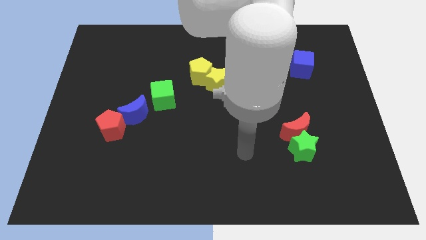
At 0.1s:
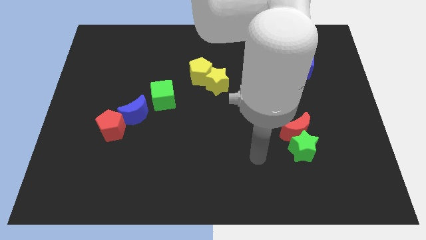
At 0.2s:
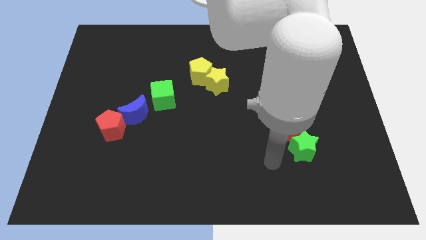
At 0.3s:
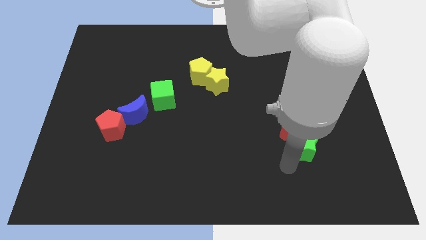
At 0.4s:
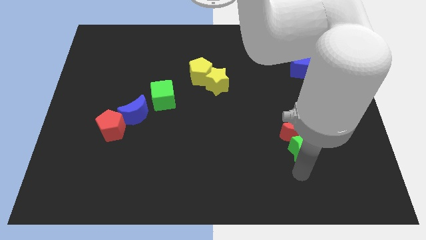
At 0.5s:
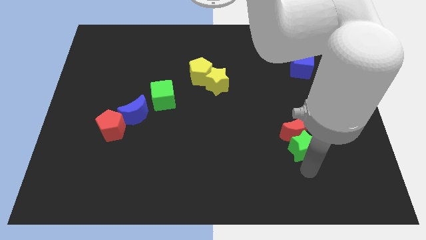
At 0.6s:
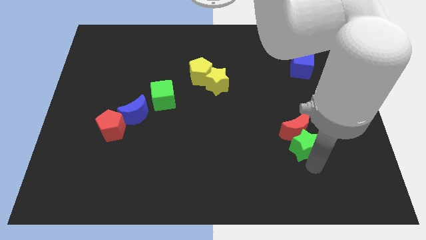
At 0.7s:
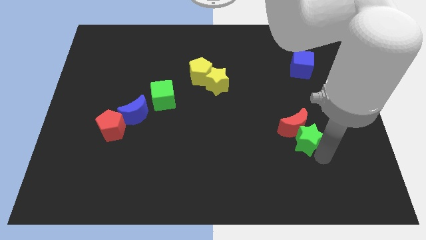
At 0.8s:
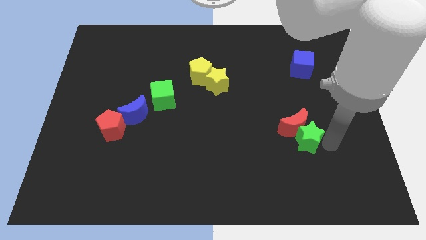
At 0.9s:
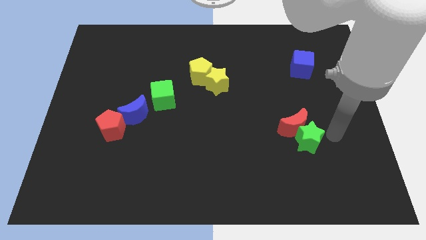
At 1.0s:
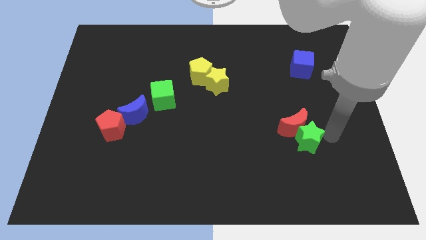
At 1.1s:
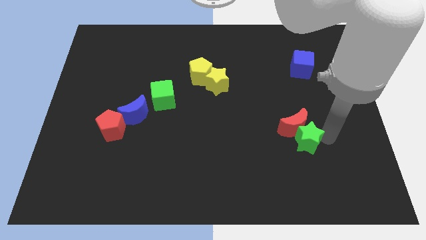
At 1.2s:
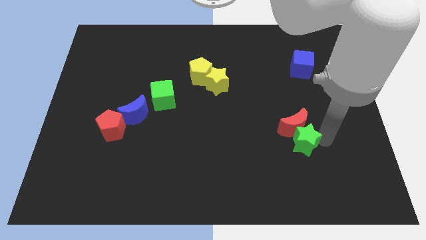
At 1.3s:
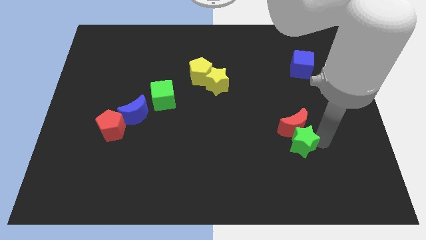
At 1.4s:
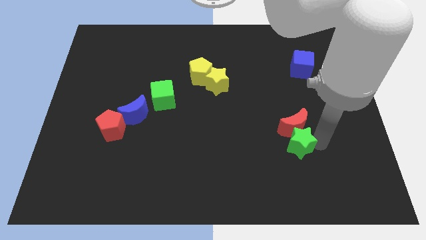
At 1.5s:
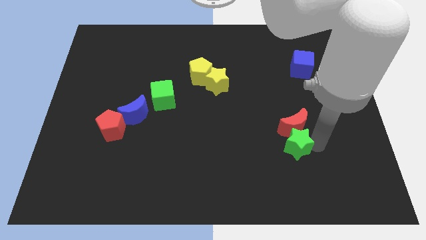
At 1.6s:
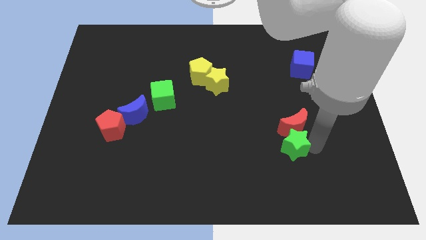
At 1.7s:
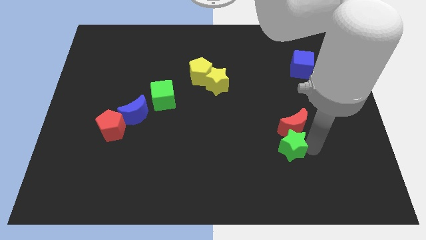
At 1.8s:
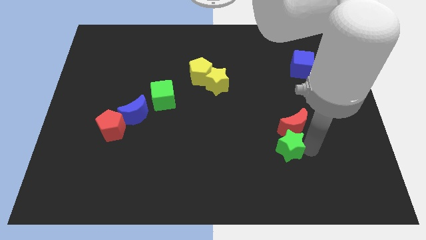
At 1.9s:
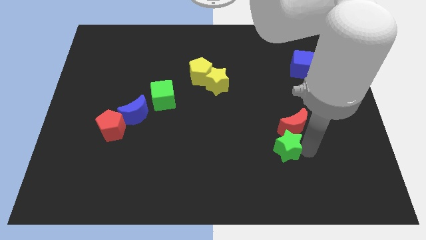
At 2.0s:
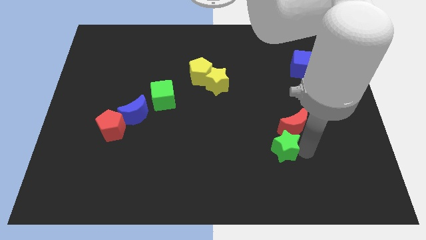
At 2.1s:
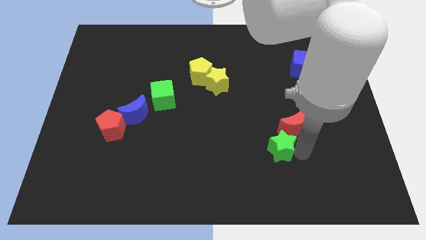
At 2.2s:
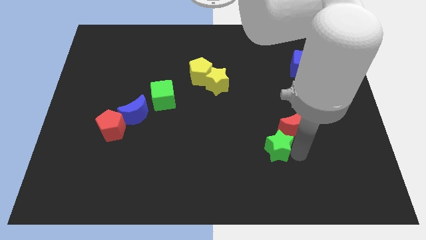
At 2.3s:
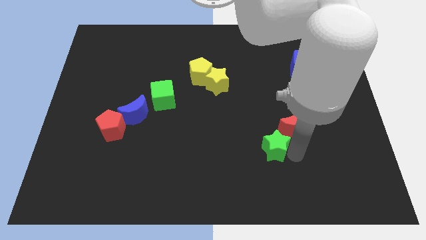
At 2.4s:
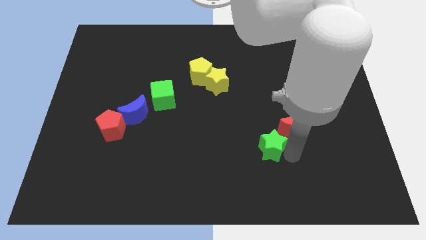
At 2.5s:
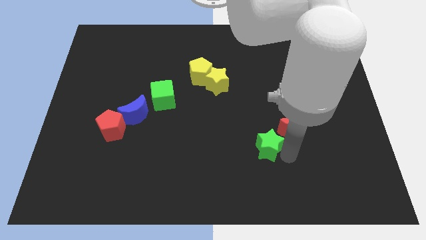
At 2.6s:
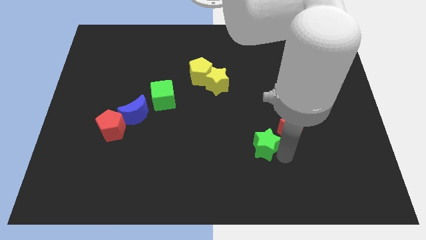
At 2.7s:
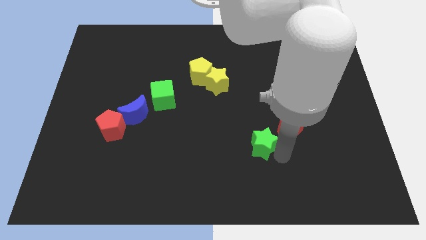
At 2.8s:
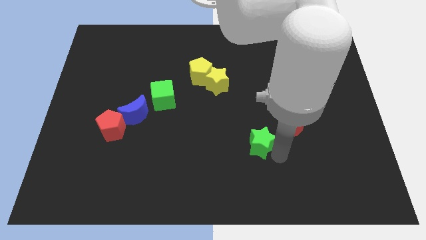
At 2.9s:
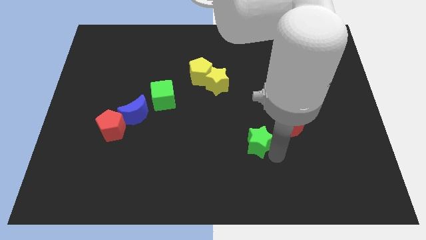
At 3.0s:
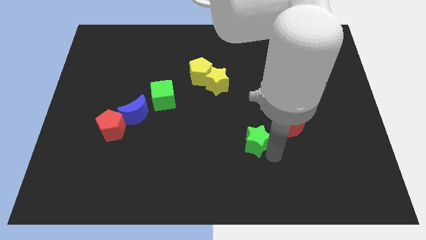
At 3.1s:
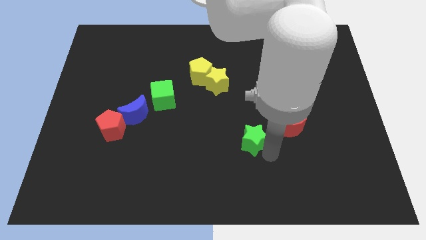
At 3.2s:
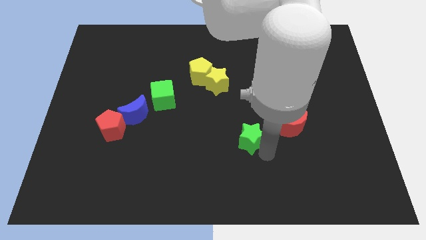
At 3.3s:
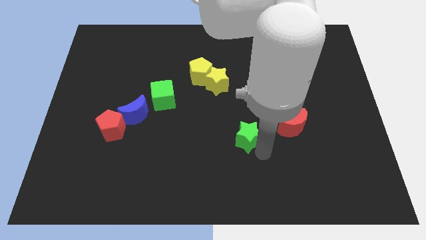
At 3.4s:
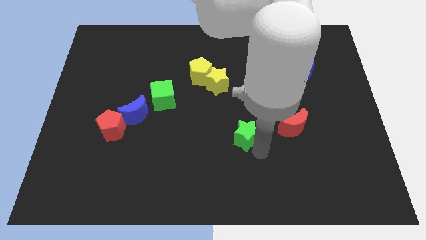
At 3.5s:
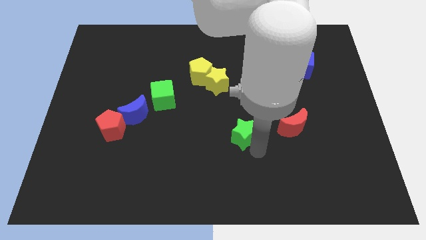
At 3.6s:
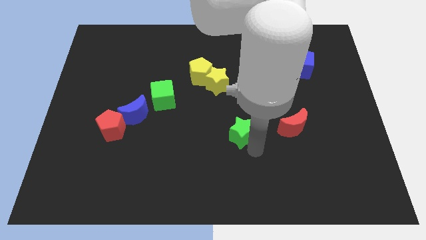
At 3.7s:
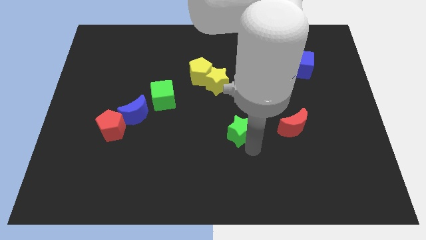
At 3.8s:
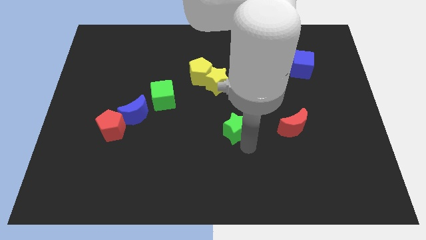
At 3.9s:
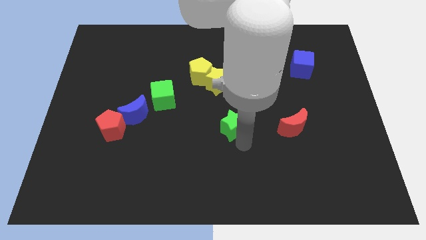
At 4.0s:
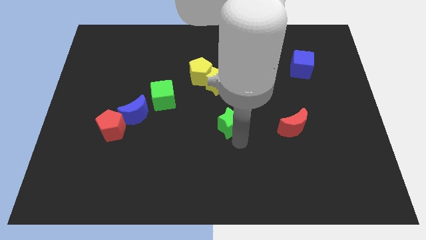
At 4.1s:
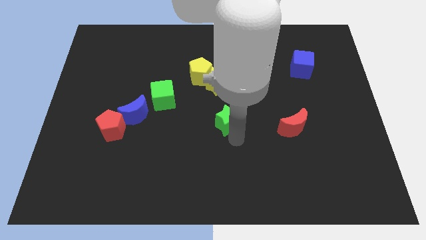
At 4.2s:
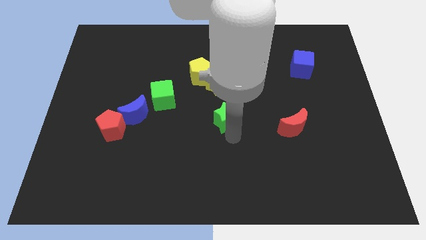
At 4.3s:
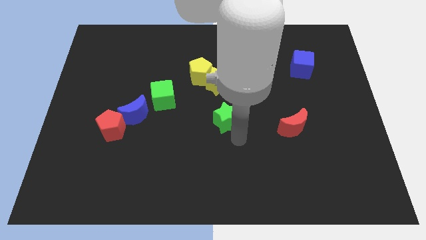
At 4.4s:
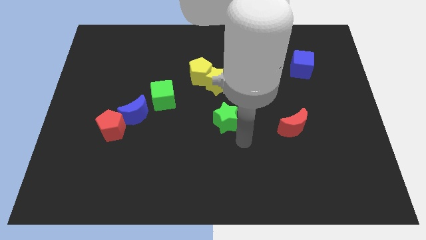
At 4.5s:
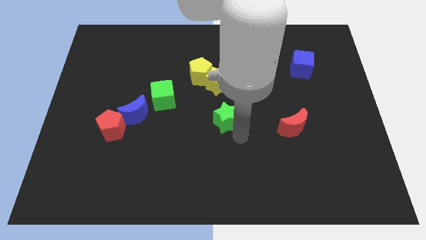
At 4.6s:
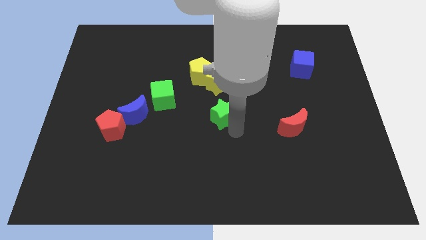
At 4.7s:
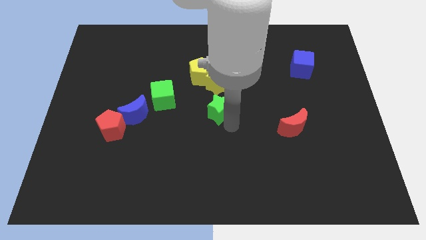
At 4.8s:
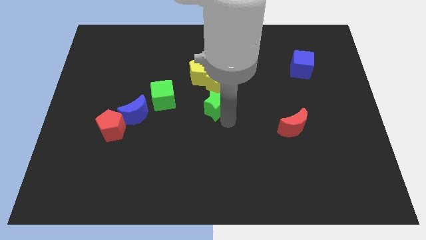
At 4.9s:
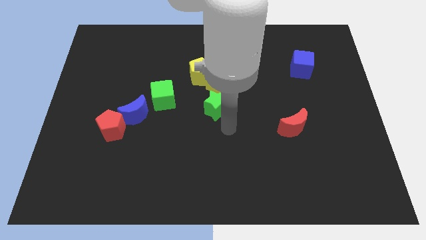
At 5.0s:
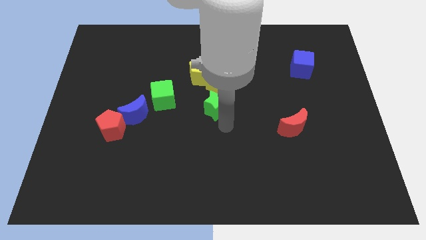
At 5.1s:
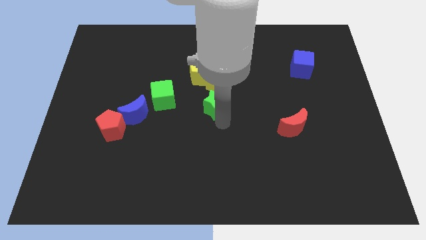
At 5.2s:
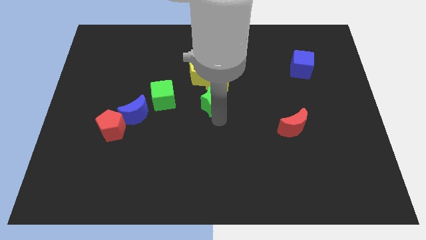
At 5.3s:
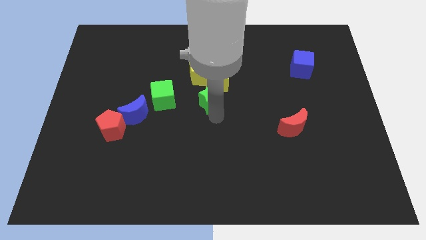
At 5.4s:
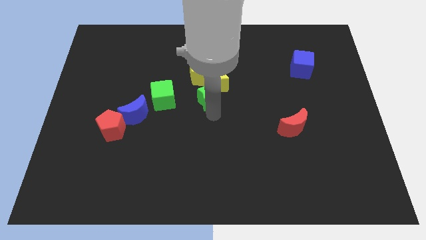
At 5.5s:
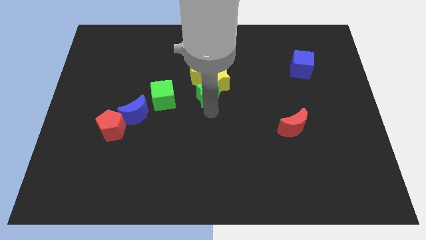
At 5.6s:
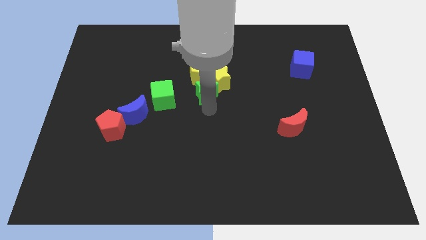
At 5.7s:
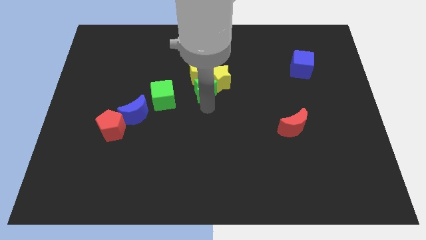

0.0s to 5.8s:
slide the green star towards the yellow pentagon

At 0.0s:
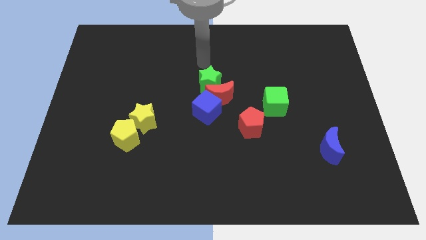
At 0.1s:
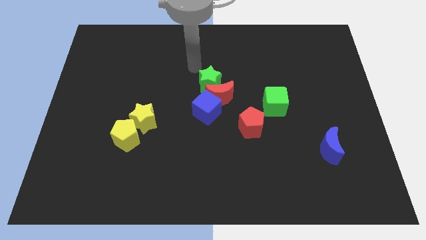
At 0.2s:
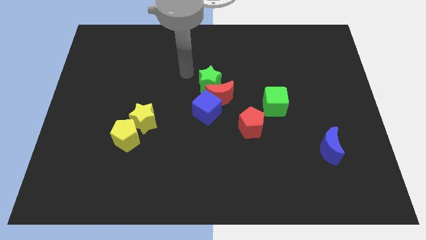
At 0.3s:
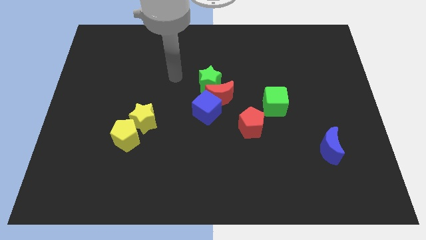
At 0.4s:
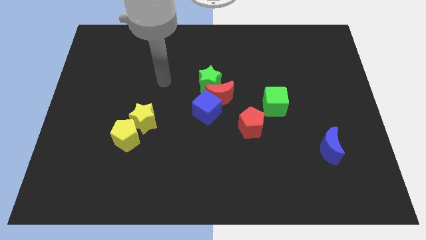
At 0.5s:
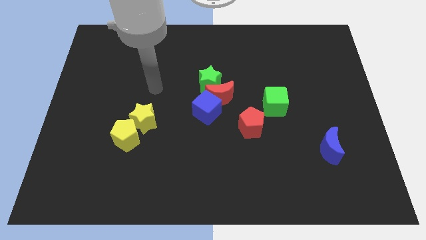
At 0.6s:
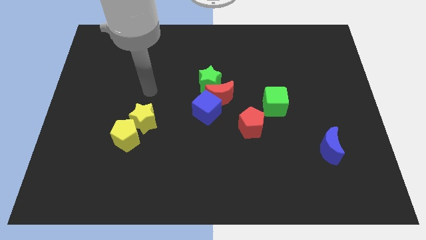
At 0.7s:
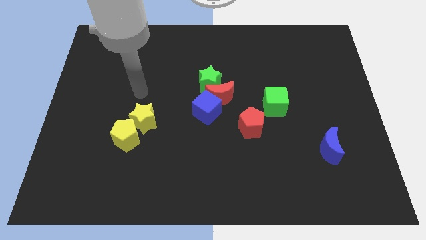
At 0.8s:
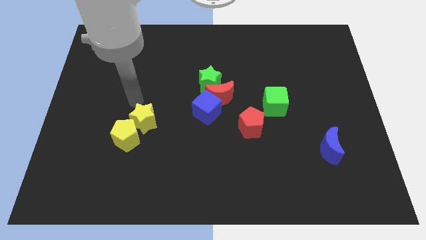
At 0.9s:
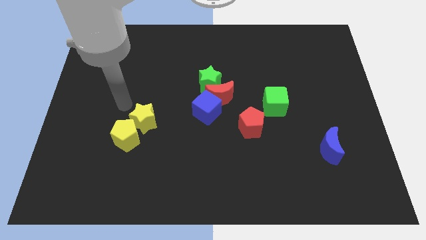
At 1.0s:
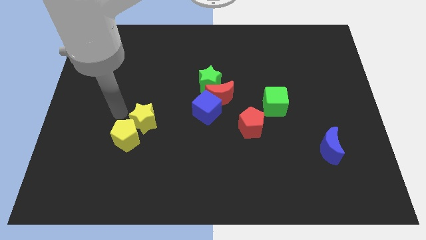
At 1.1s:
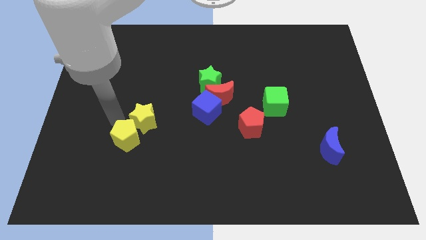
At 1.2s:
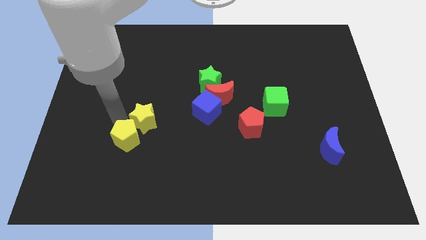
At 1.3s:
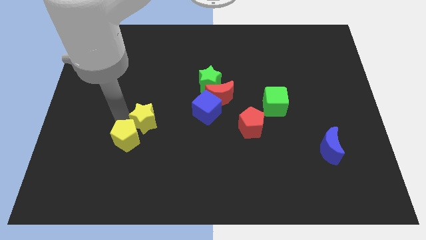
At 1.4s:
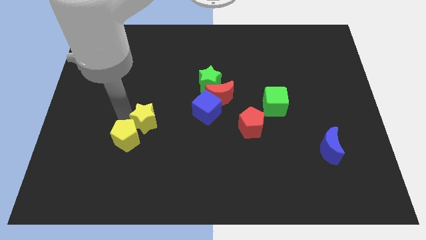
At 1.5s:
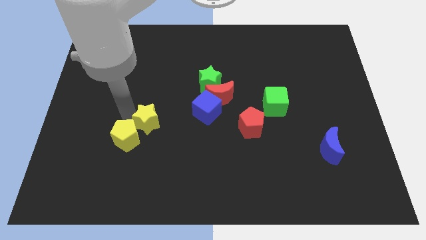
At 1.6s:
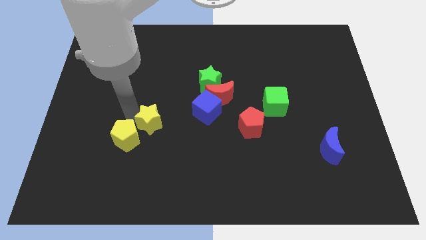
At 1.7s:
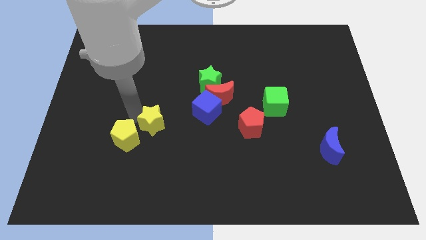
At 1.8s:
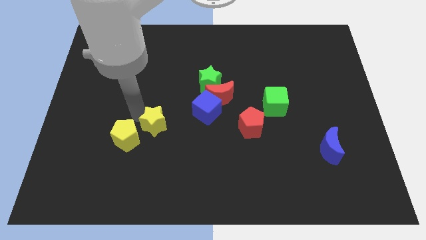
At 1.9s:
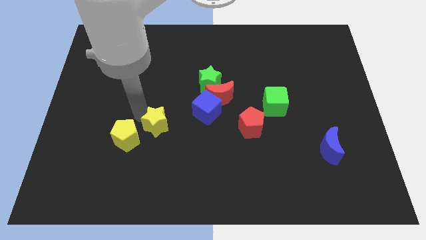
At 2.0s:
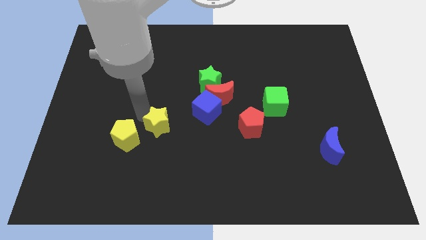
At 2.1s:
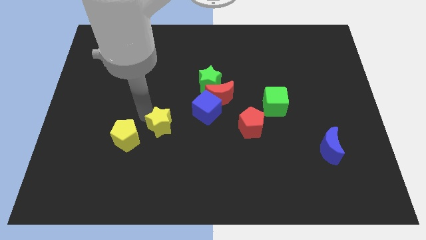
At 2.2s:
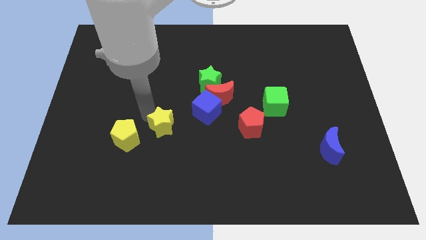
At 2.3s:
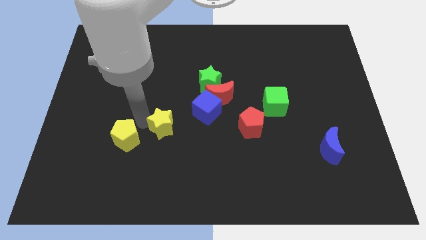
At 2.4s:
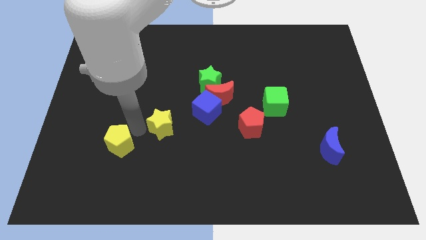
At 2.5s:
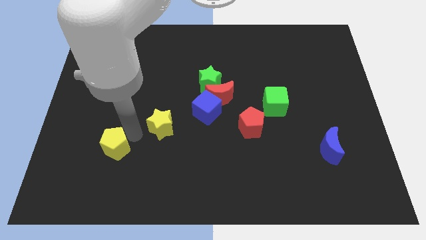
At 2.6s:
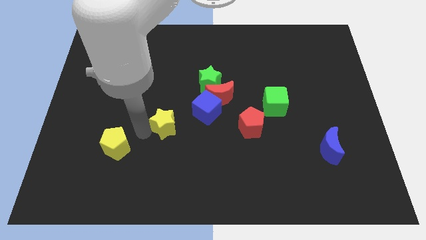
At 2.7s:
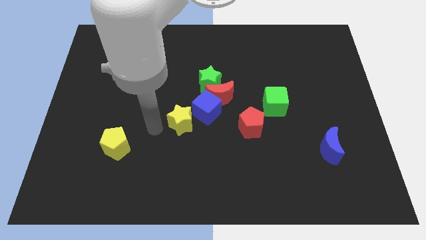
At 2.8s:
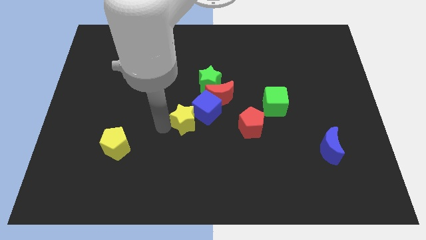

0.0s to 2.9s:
push the yellow star next to the blue cube
